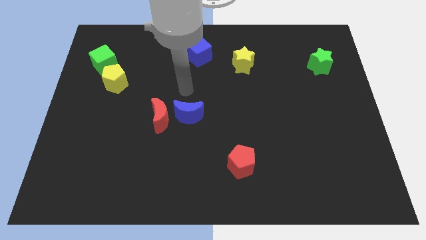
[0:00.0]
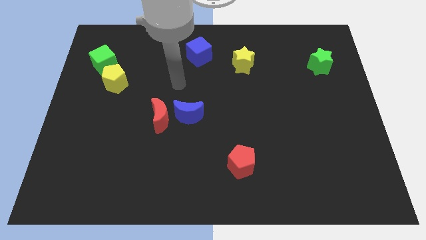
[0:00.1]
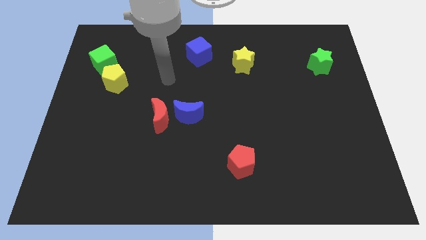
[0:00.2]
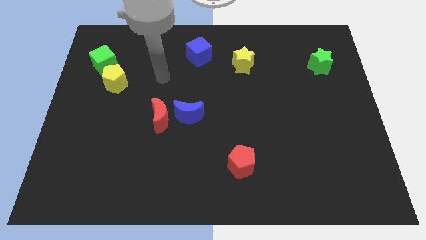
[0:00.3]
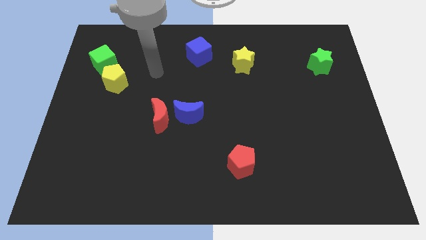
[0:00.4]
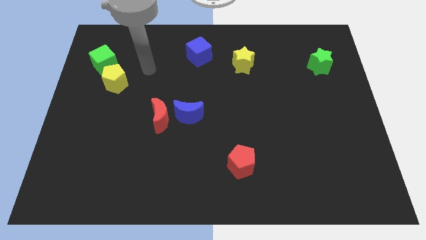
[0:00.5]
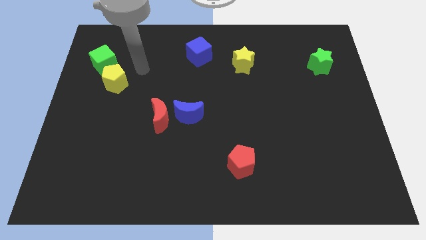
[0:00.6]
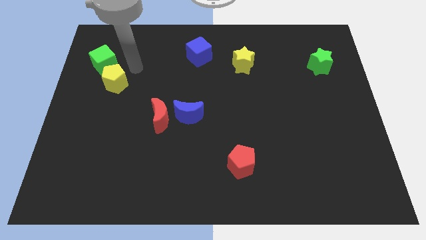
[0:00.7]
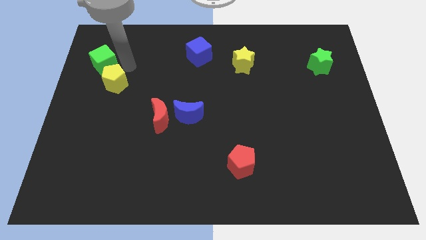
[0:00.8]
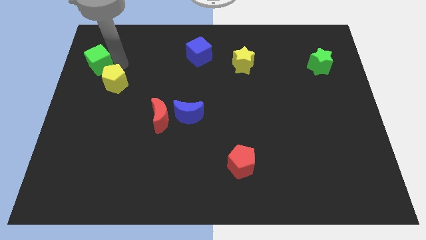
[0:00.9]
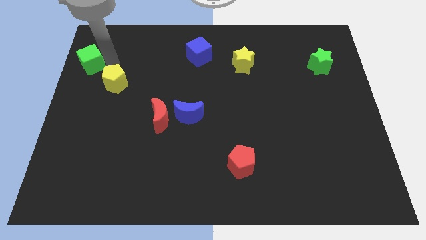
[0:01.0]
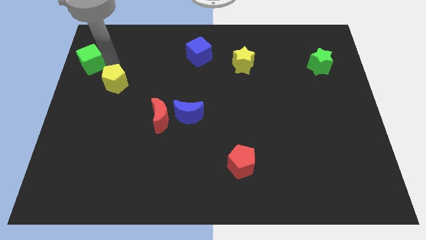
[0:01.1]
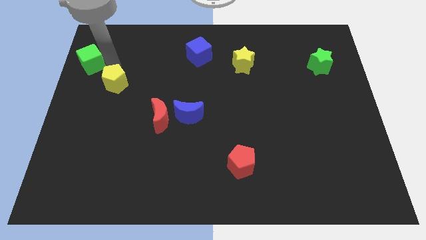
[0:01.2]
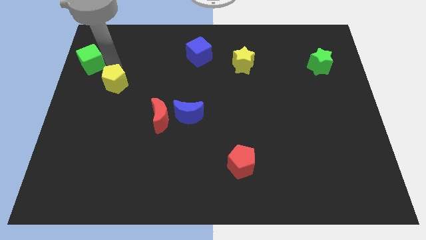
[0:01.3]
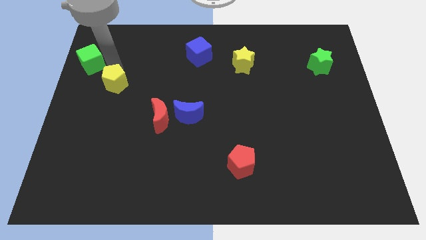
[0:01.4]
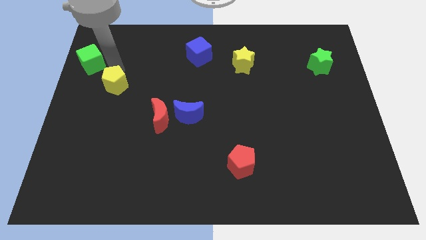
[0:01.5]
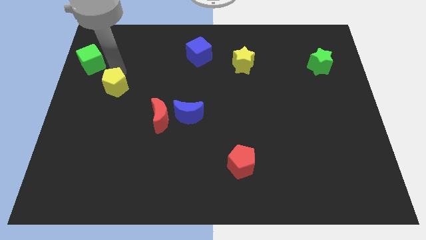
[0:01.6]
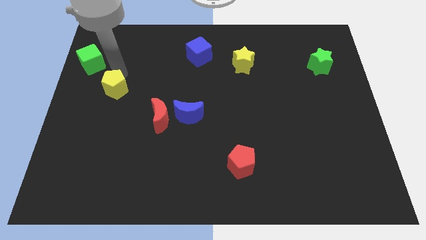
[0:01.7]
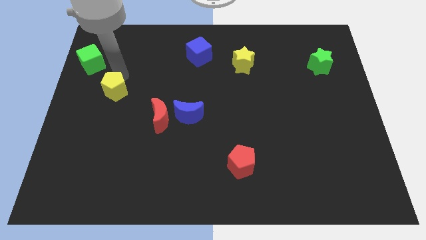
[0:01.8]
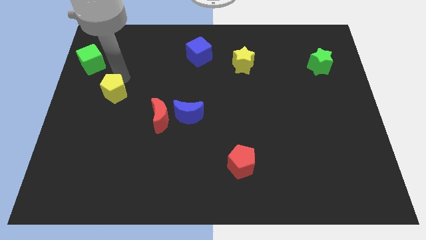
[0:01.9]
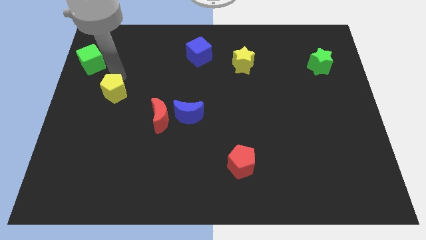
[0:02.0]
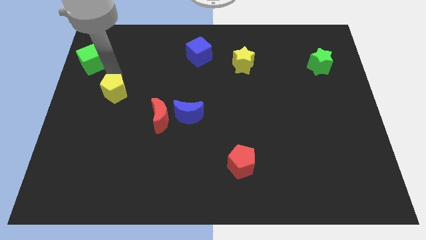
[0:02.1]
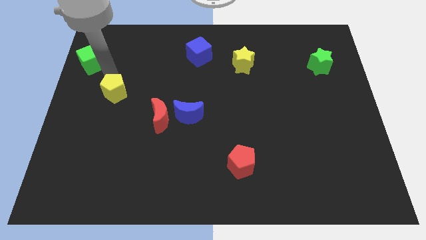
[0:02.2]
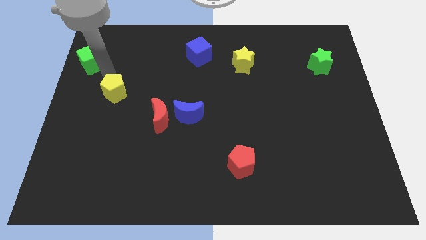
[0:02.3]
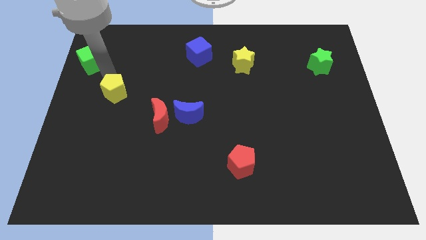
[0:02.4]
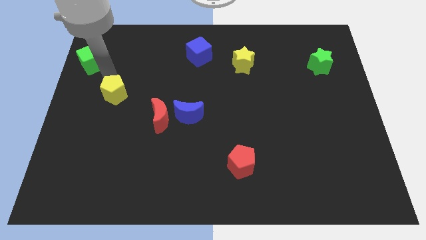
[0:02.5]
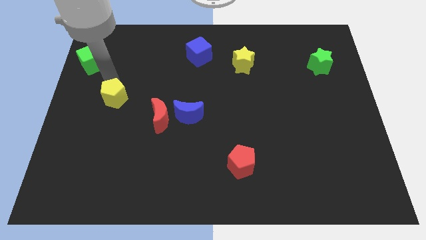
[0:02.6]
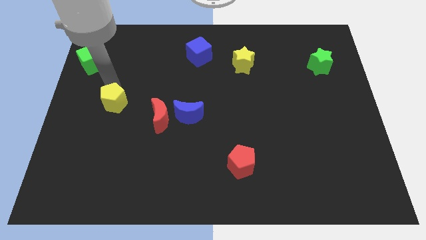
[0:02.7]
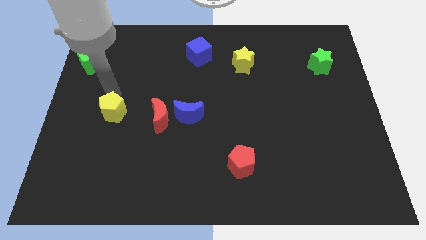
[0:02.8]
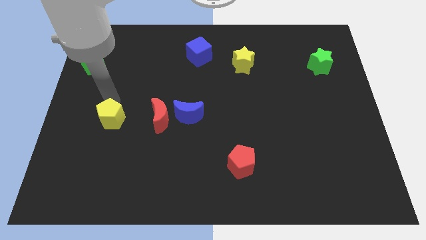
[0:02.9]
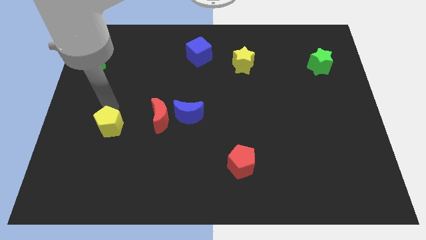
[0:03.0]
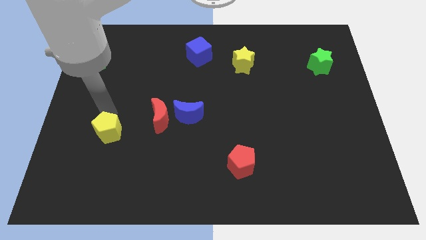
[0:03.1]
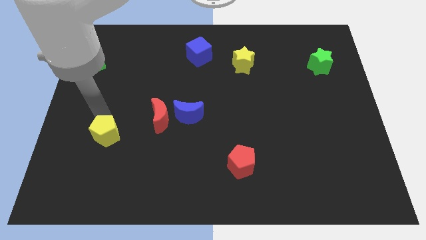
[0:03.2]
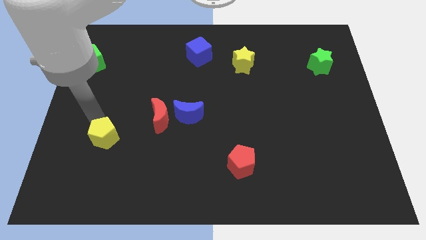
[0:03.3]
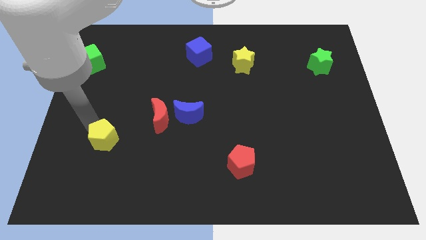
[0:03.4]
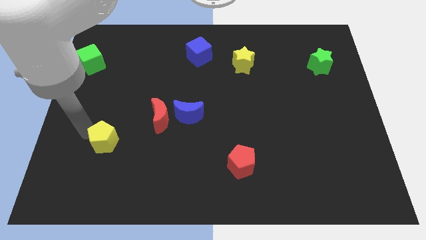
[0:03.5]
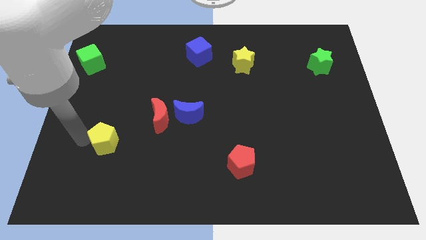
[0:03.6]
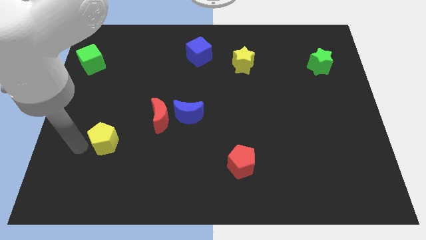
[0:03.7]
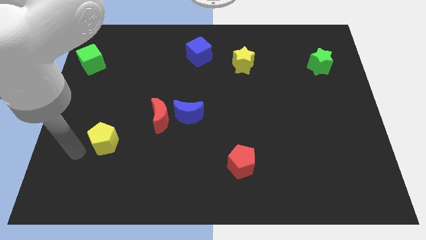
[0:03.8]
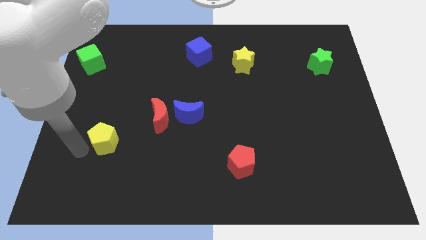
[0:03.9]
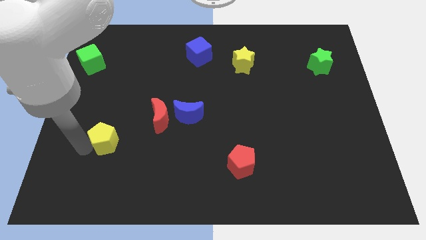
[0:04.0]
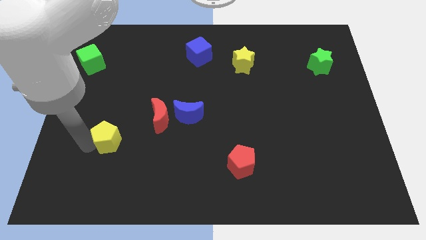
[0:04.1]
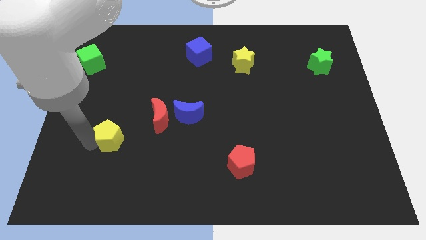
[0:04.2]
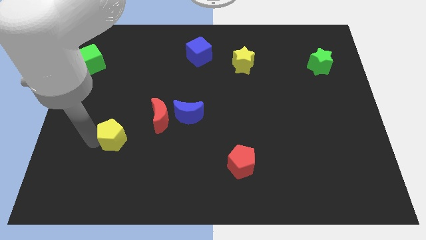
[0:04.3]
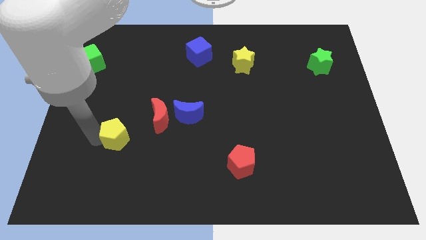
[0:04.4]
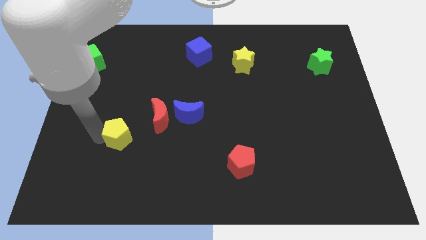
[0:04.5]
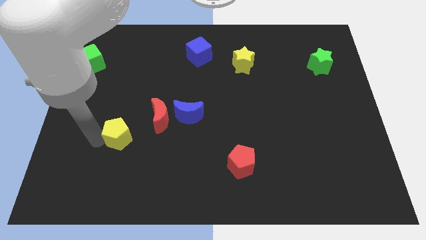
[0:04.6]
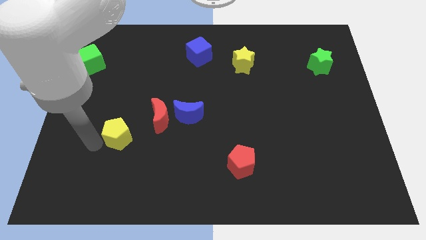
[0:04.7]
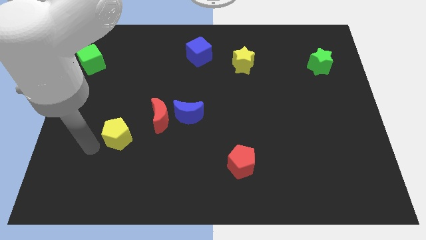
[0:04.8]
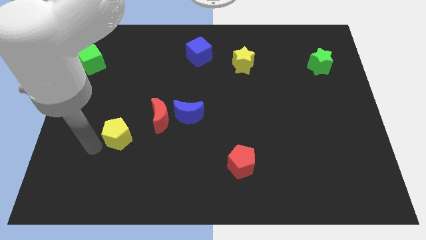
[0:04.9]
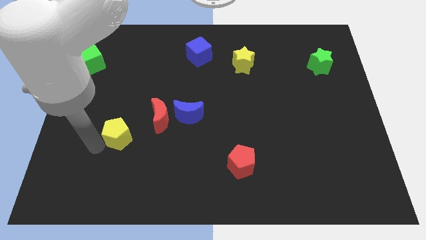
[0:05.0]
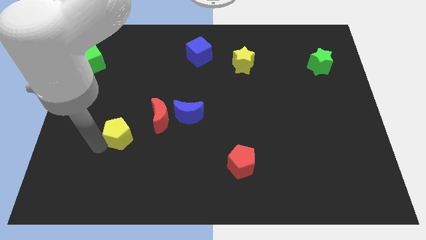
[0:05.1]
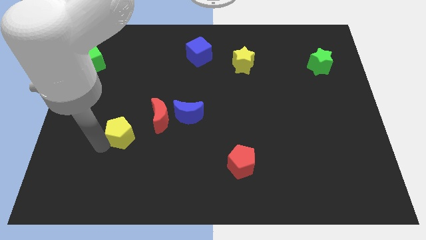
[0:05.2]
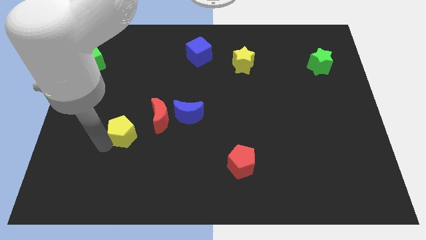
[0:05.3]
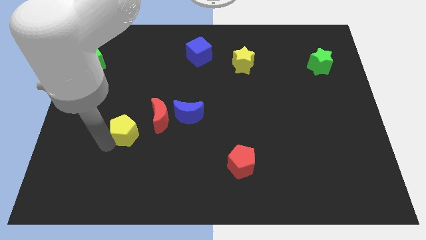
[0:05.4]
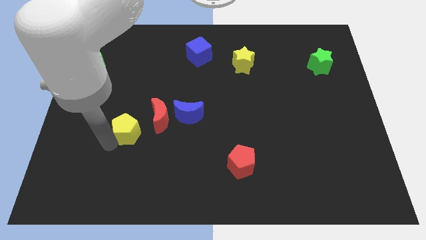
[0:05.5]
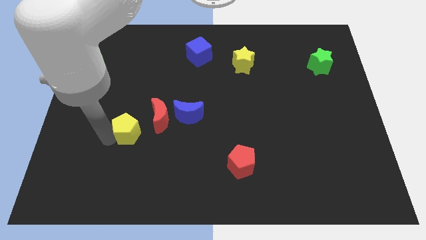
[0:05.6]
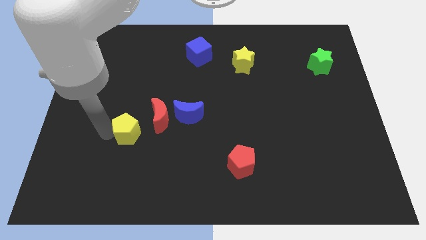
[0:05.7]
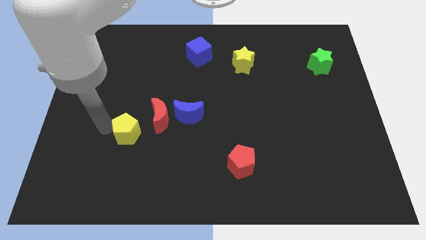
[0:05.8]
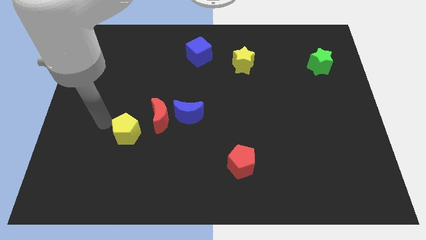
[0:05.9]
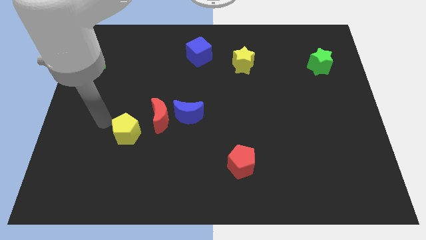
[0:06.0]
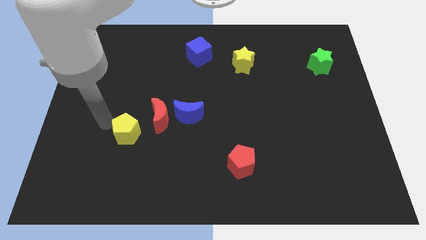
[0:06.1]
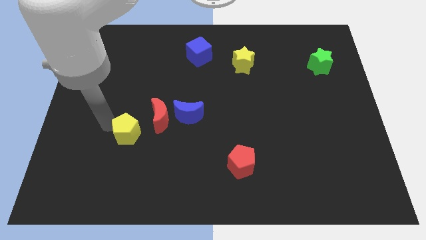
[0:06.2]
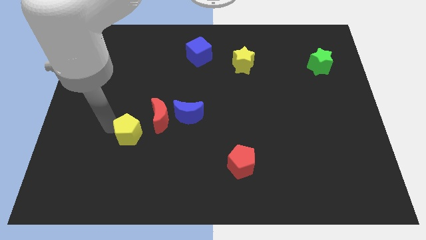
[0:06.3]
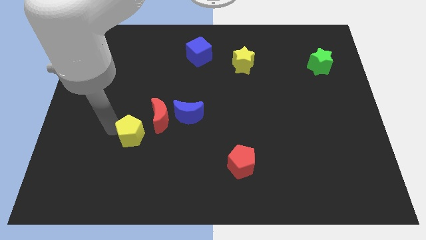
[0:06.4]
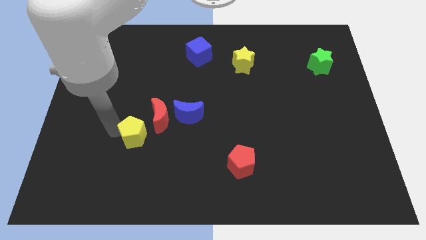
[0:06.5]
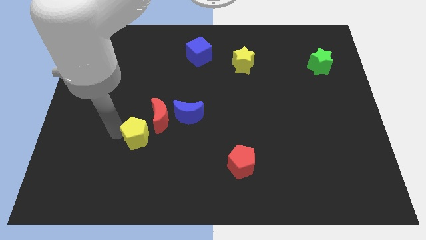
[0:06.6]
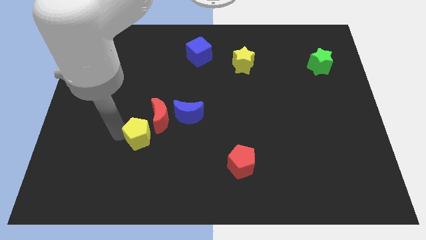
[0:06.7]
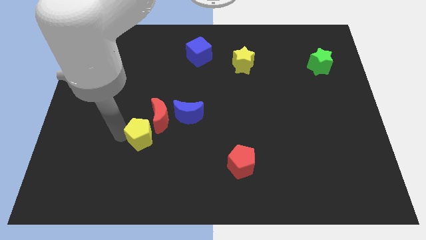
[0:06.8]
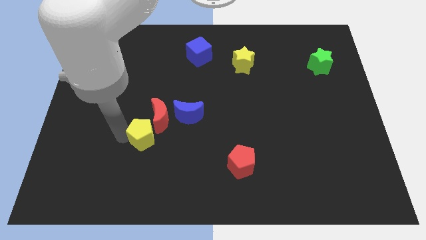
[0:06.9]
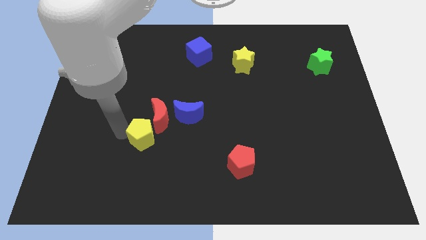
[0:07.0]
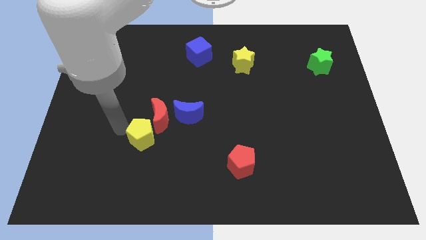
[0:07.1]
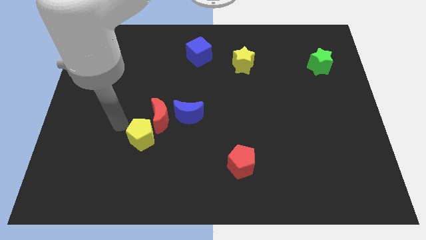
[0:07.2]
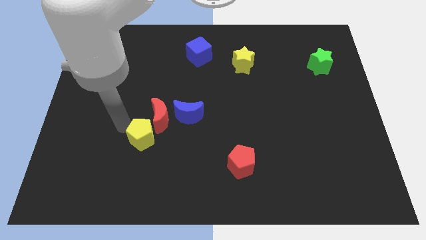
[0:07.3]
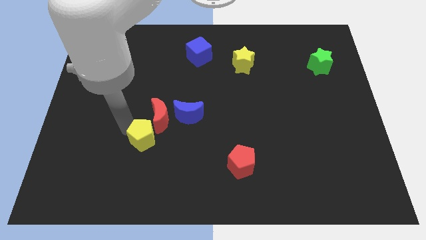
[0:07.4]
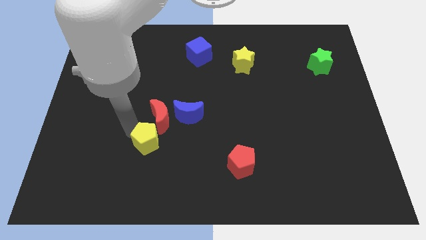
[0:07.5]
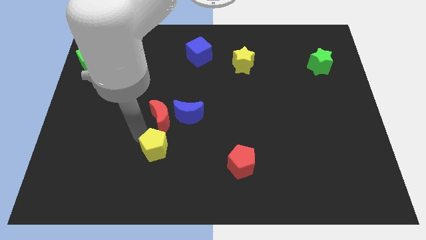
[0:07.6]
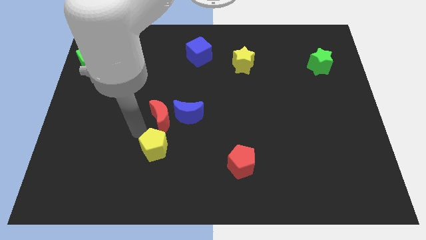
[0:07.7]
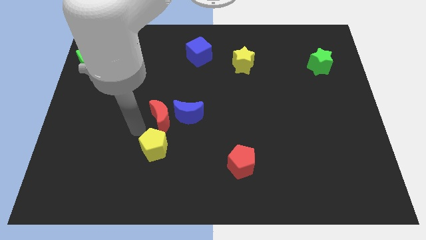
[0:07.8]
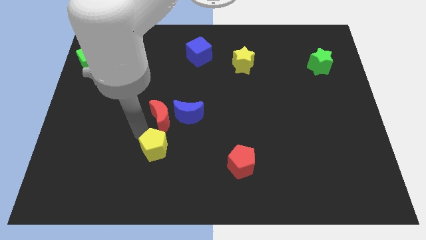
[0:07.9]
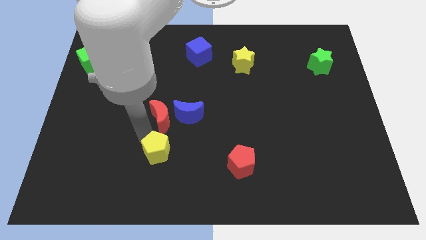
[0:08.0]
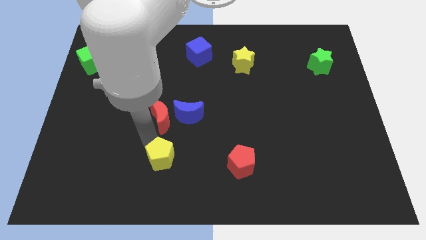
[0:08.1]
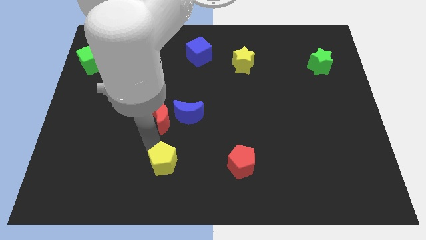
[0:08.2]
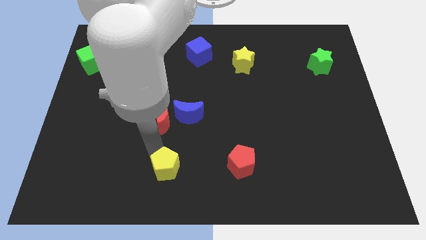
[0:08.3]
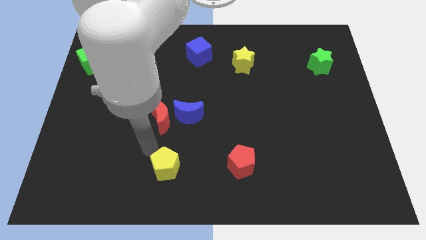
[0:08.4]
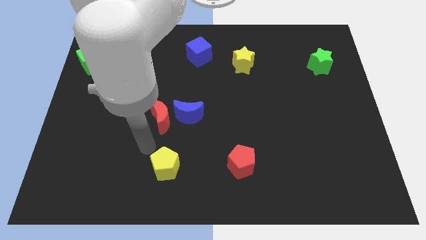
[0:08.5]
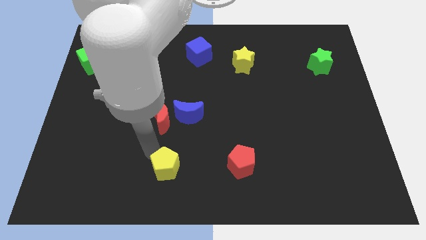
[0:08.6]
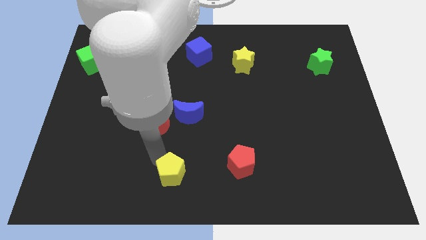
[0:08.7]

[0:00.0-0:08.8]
move the yellow pentagon to the bottom
